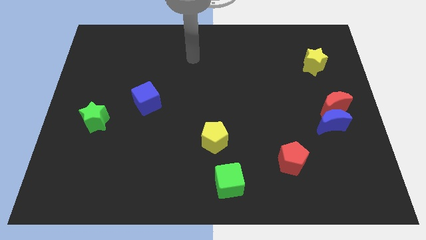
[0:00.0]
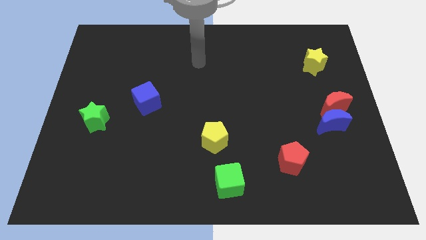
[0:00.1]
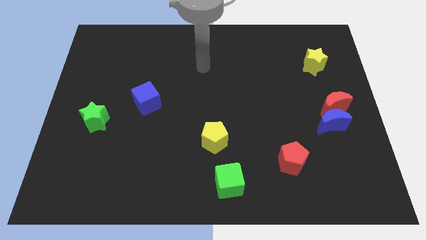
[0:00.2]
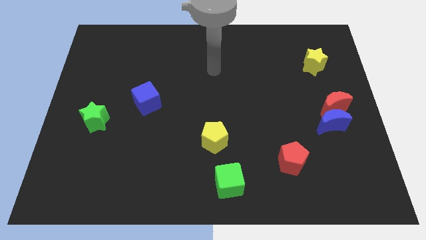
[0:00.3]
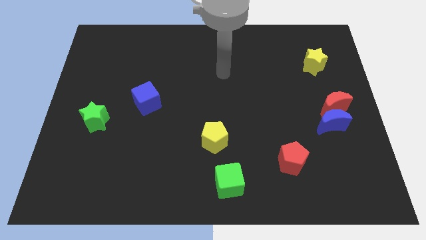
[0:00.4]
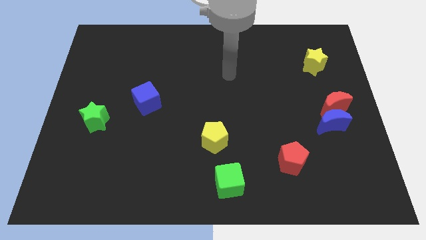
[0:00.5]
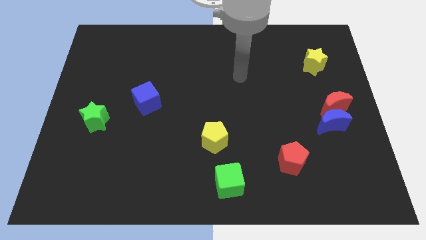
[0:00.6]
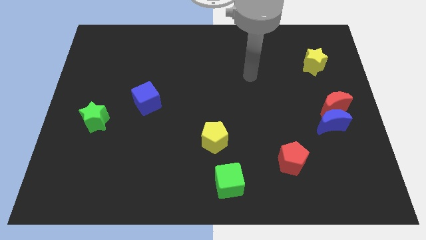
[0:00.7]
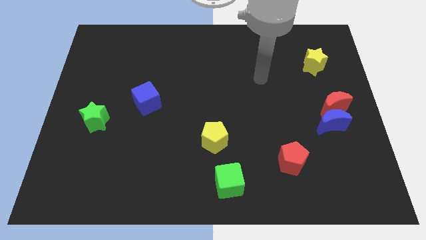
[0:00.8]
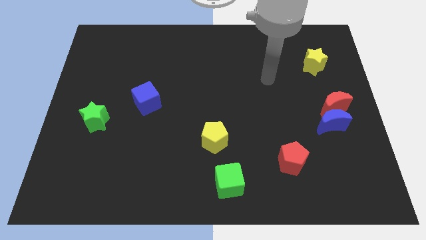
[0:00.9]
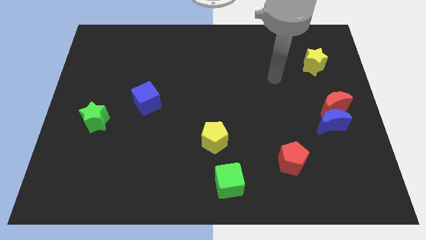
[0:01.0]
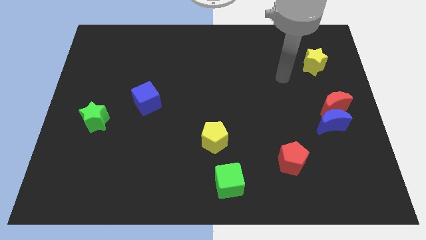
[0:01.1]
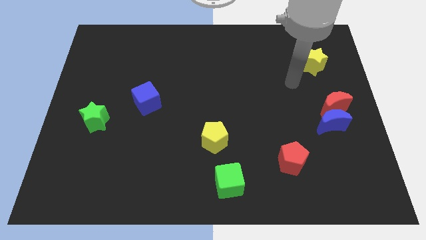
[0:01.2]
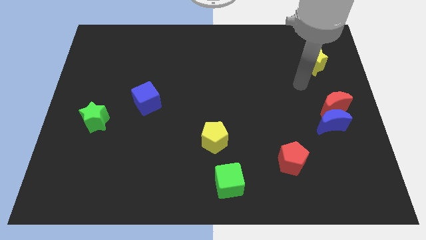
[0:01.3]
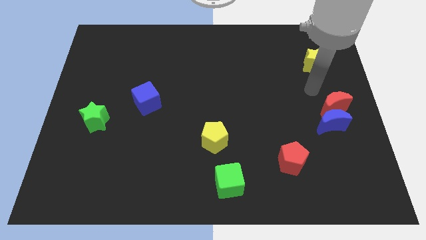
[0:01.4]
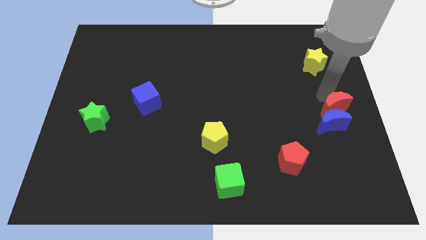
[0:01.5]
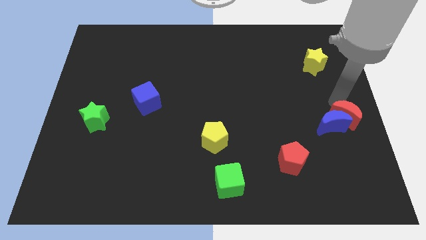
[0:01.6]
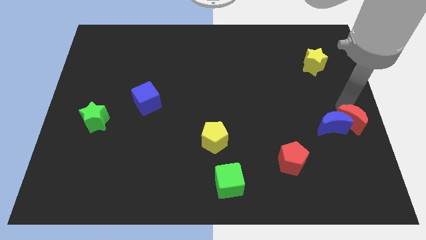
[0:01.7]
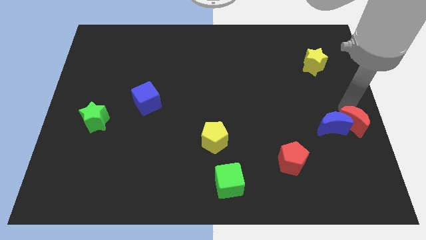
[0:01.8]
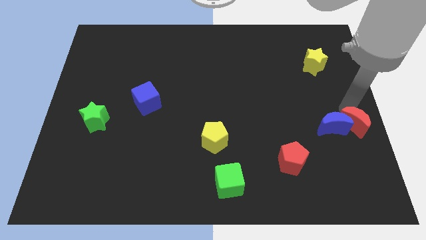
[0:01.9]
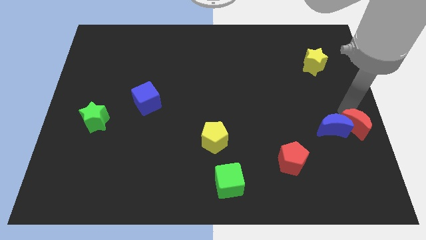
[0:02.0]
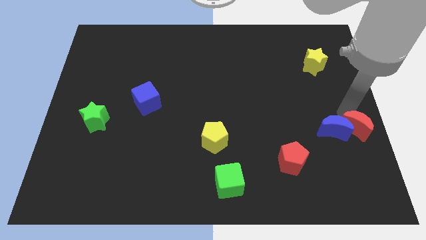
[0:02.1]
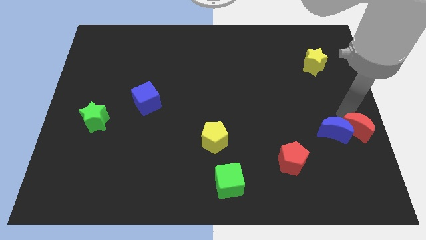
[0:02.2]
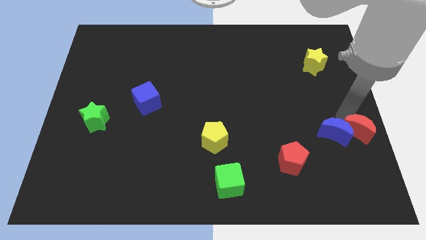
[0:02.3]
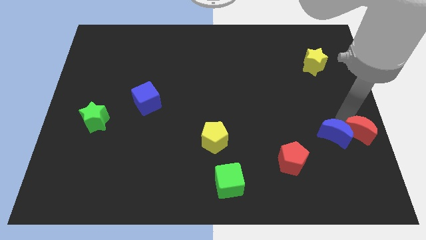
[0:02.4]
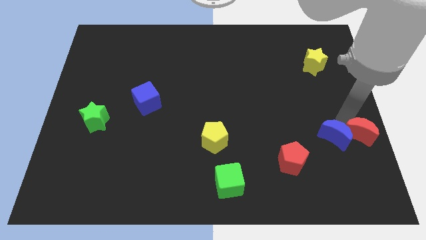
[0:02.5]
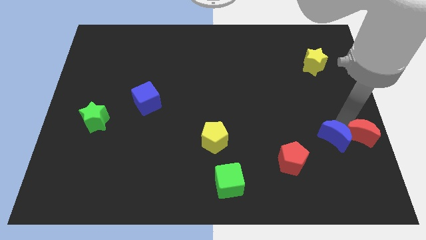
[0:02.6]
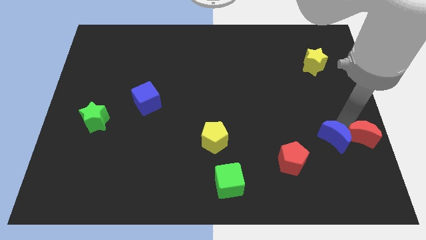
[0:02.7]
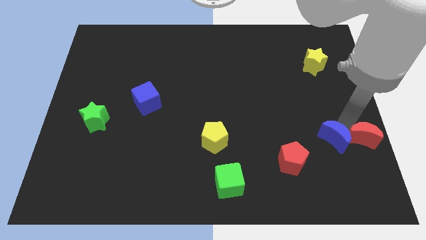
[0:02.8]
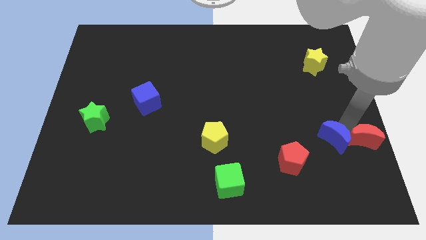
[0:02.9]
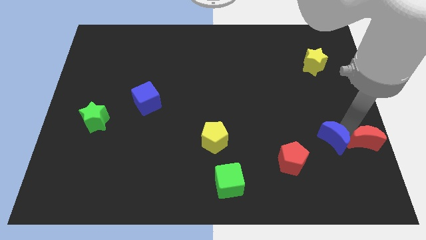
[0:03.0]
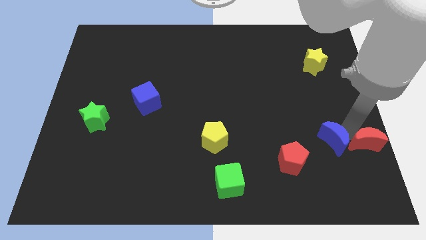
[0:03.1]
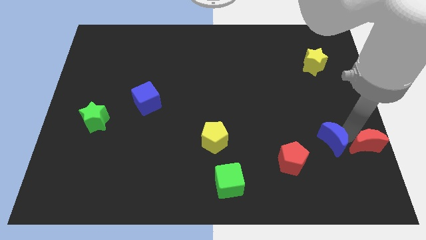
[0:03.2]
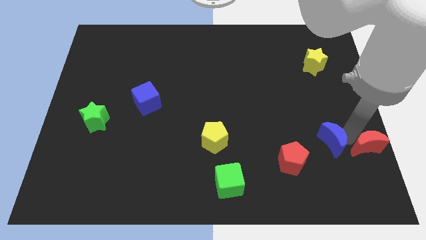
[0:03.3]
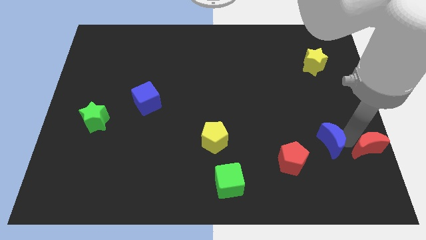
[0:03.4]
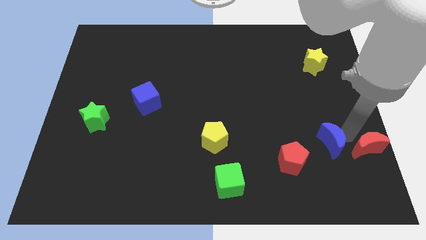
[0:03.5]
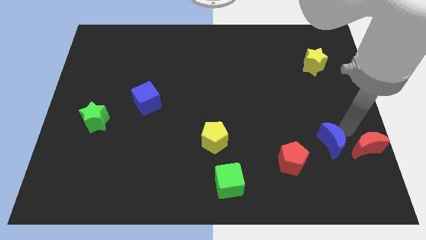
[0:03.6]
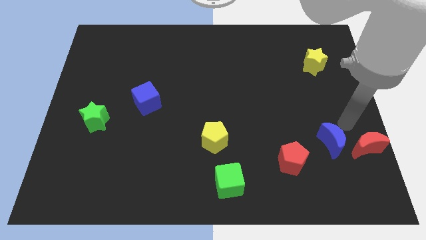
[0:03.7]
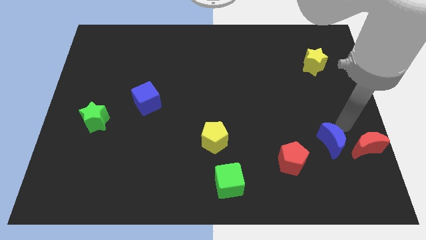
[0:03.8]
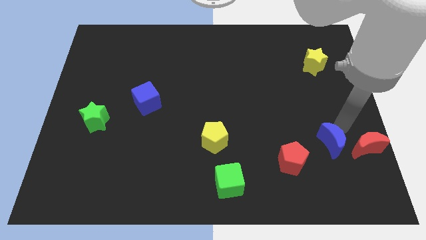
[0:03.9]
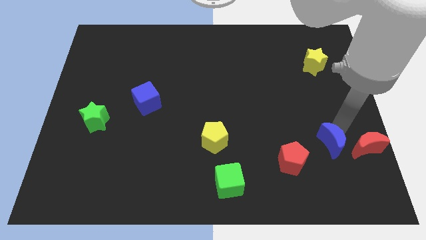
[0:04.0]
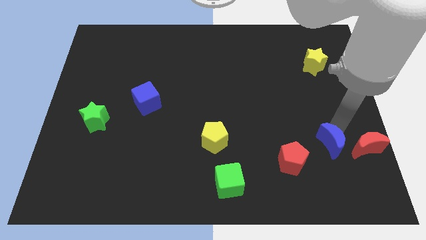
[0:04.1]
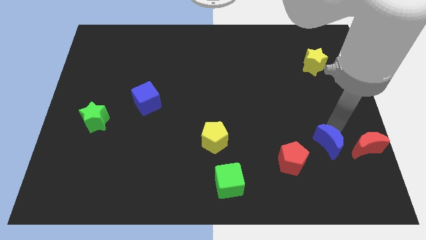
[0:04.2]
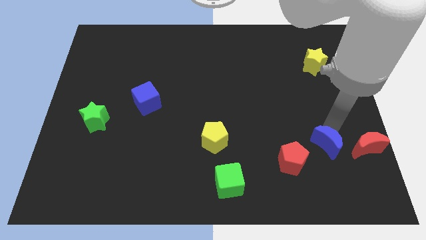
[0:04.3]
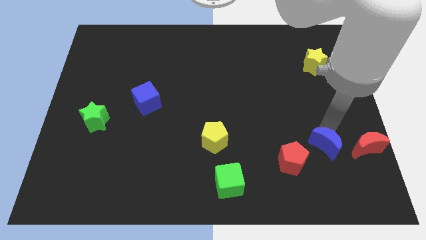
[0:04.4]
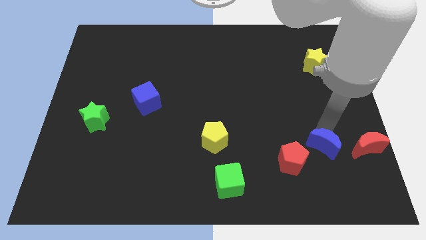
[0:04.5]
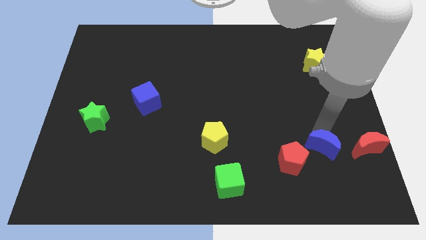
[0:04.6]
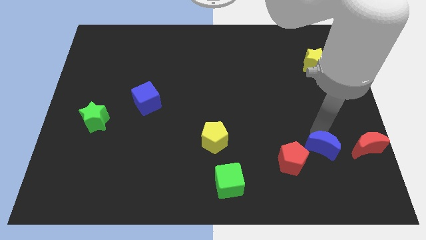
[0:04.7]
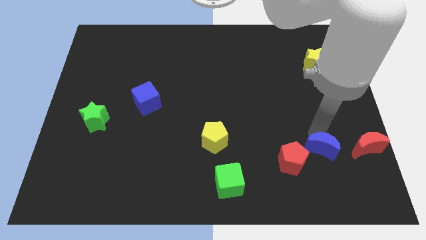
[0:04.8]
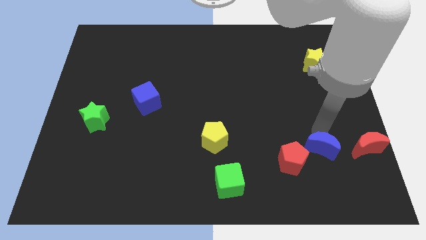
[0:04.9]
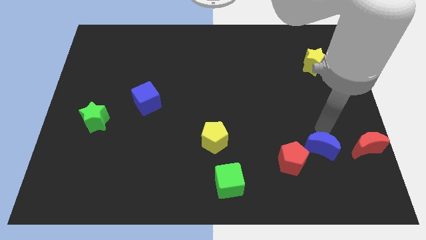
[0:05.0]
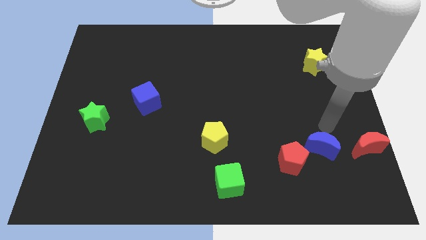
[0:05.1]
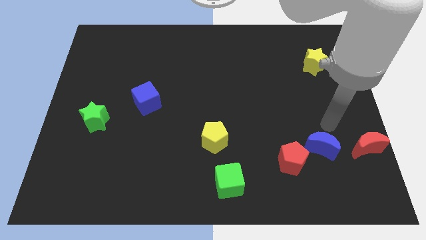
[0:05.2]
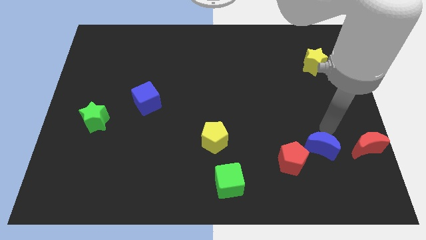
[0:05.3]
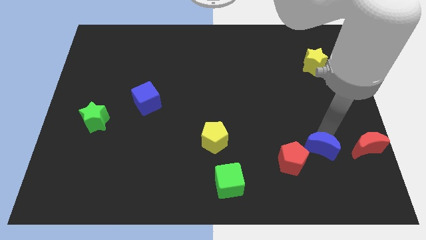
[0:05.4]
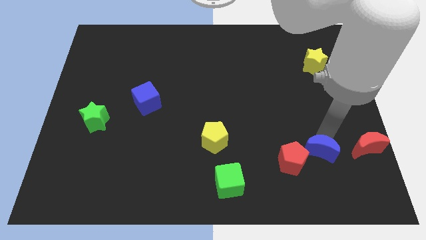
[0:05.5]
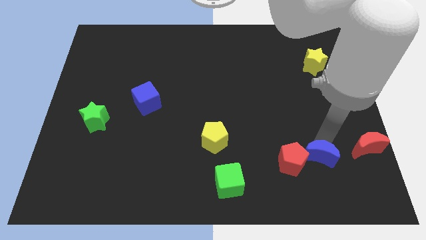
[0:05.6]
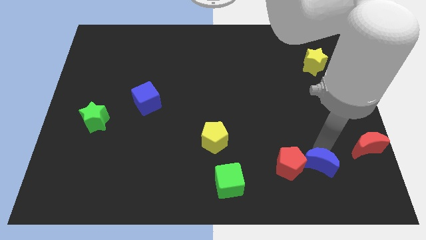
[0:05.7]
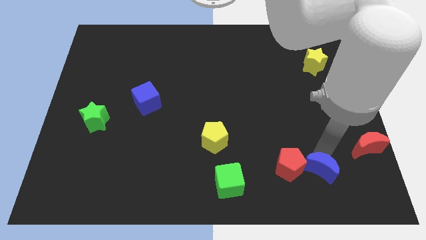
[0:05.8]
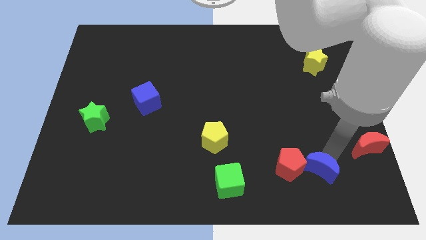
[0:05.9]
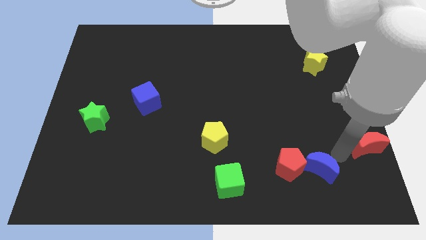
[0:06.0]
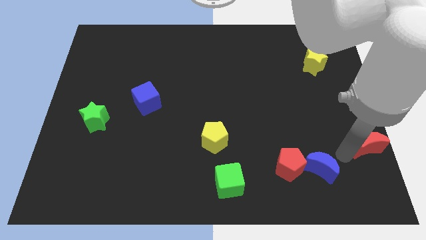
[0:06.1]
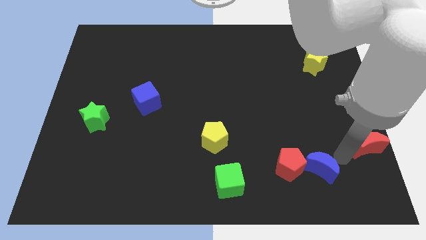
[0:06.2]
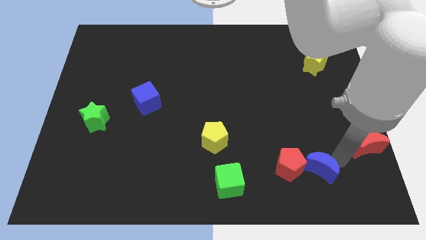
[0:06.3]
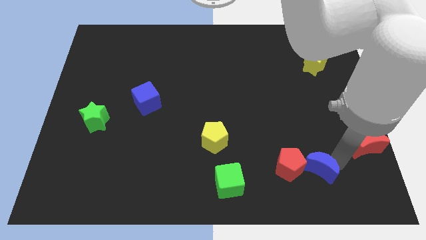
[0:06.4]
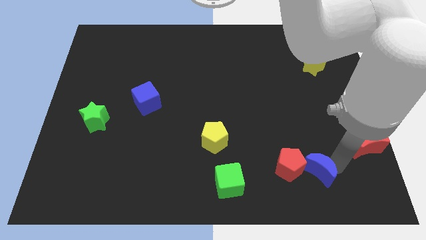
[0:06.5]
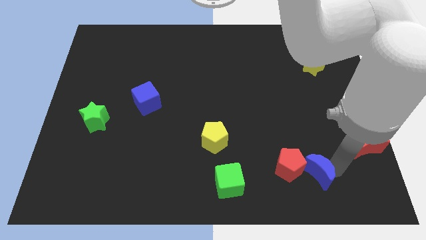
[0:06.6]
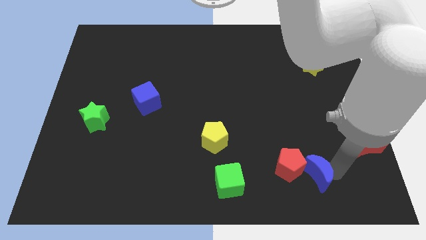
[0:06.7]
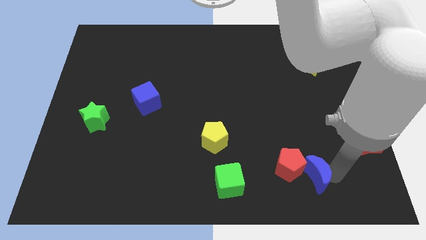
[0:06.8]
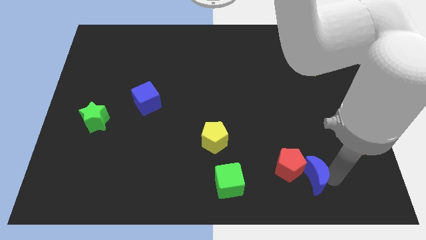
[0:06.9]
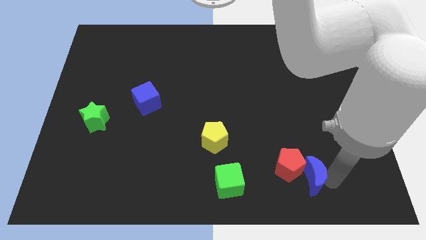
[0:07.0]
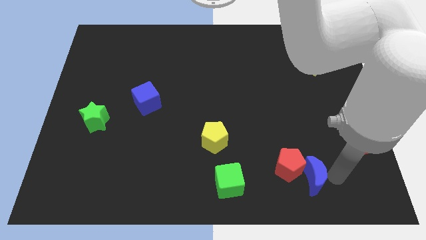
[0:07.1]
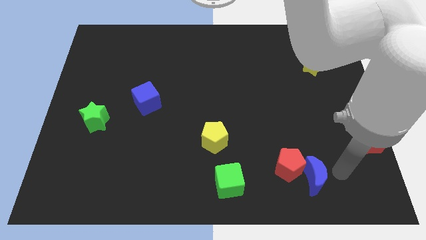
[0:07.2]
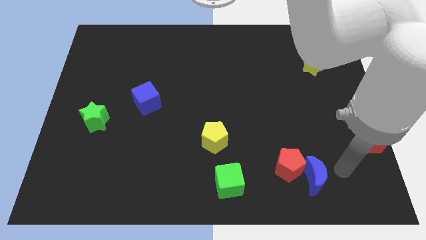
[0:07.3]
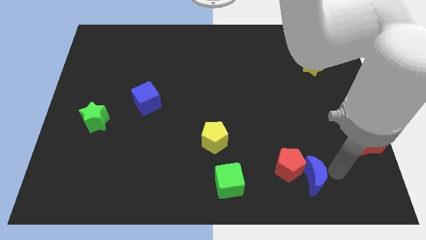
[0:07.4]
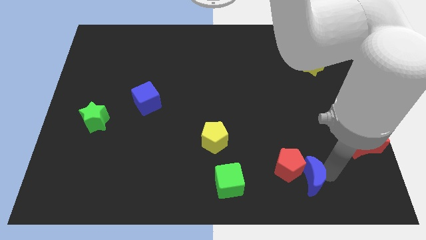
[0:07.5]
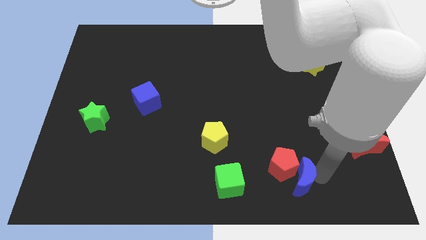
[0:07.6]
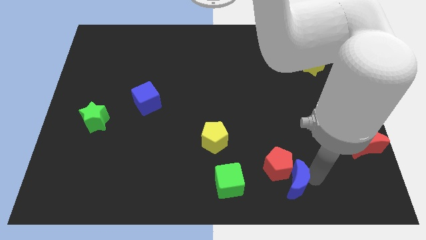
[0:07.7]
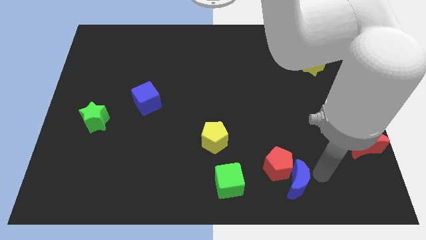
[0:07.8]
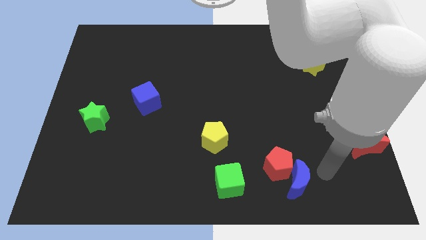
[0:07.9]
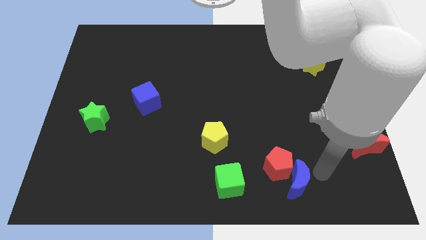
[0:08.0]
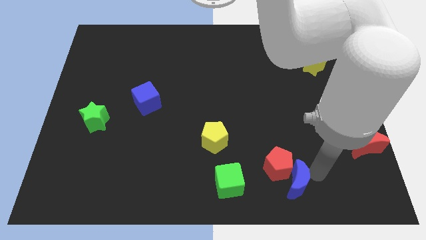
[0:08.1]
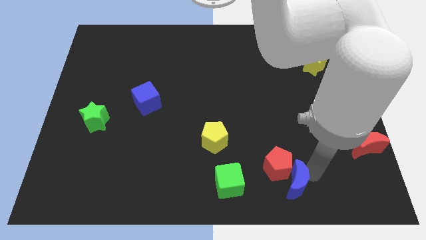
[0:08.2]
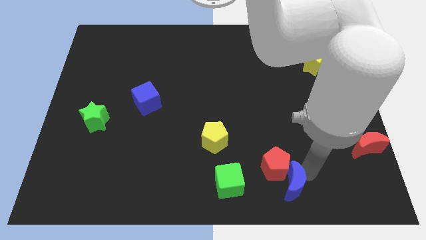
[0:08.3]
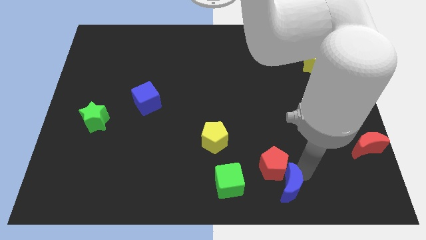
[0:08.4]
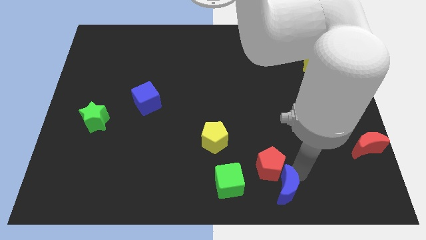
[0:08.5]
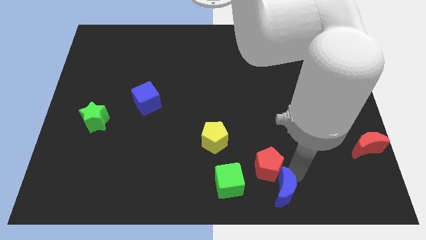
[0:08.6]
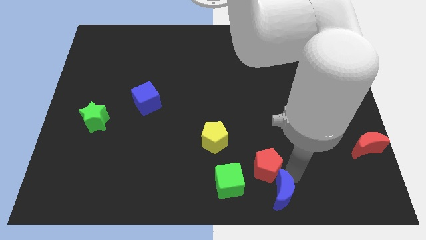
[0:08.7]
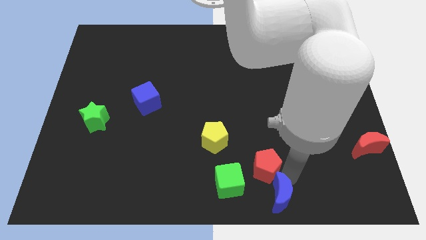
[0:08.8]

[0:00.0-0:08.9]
put the blue moon to the bottom
